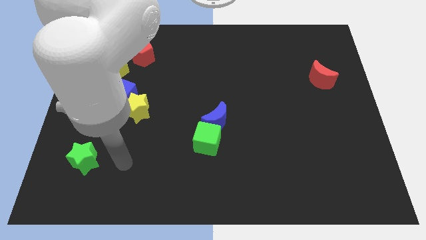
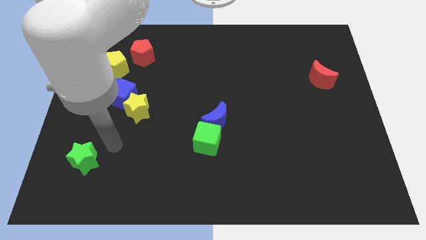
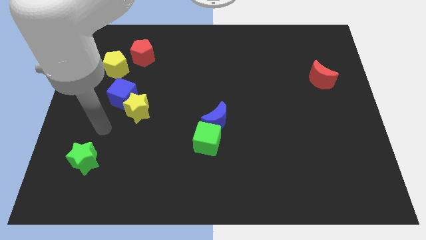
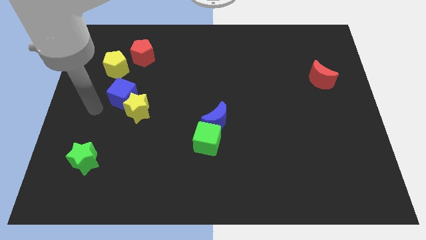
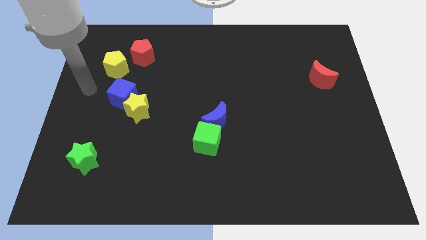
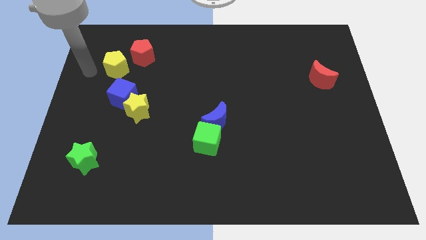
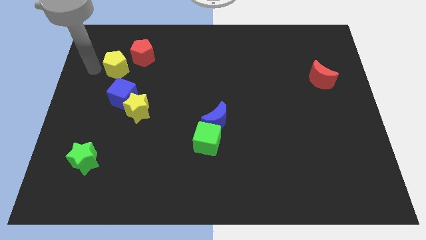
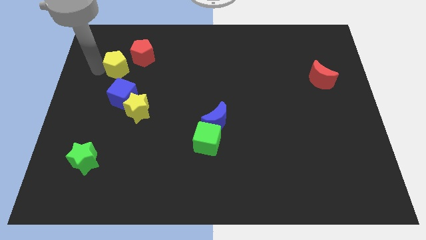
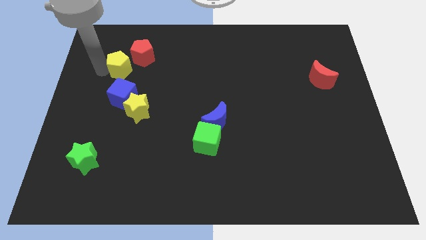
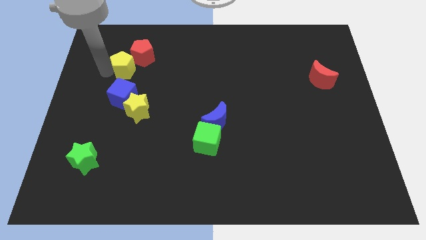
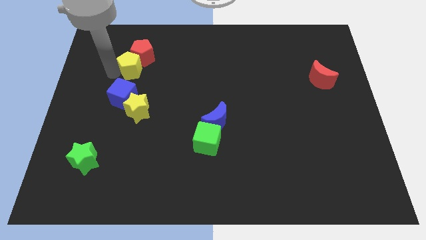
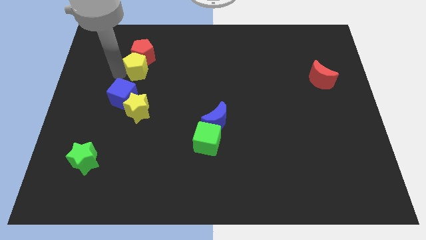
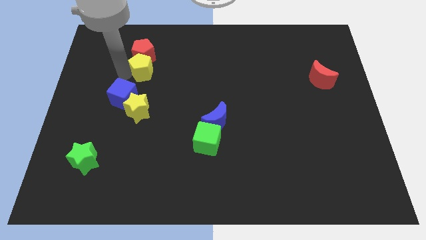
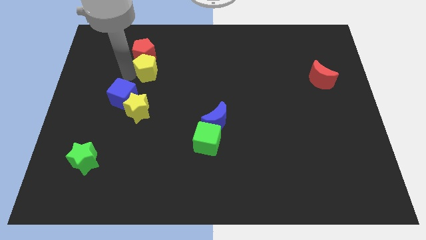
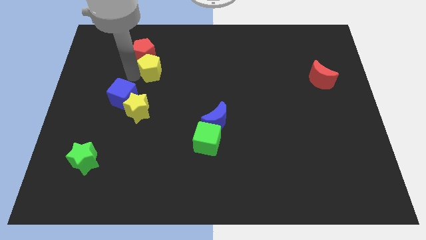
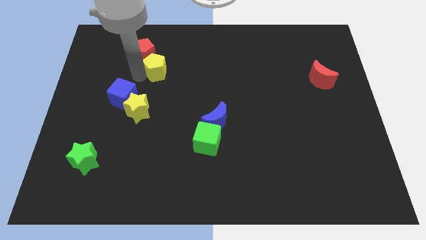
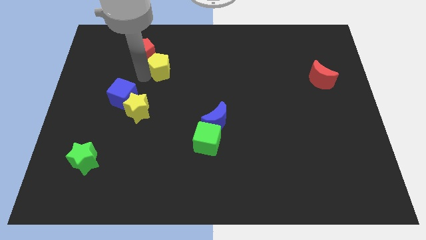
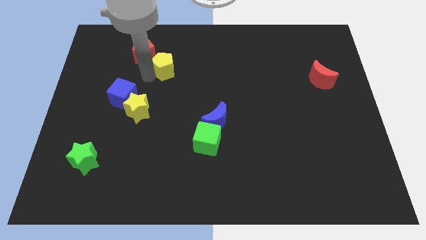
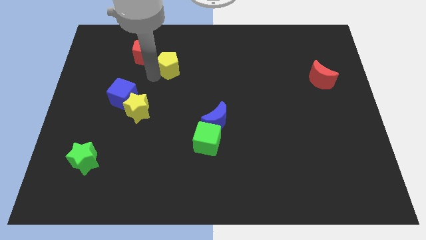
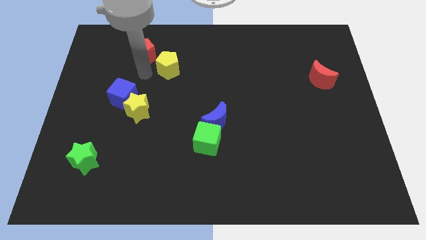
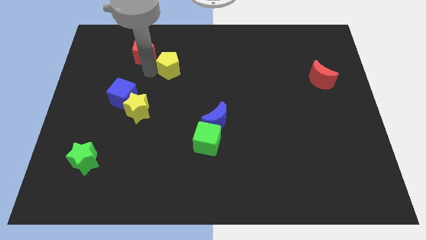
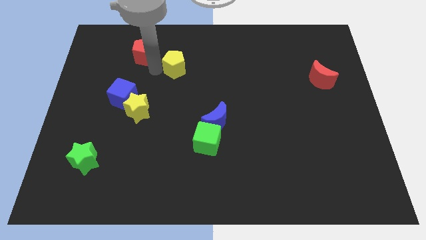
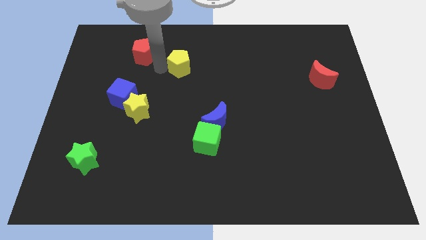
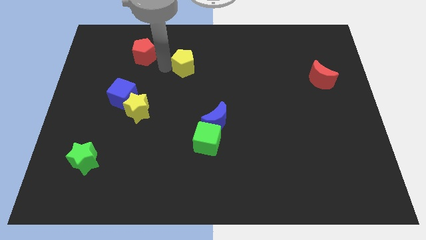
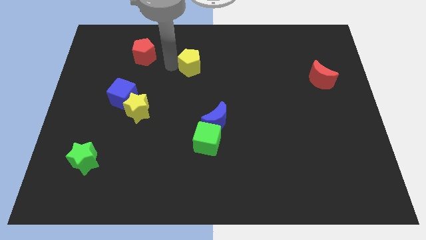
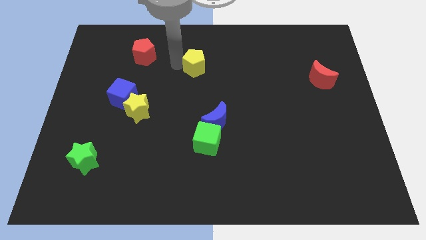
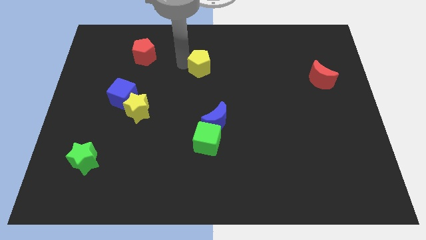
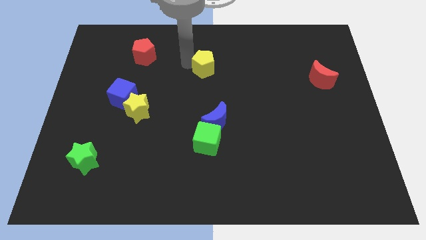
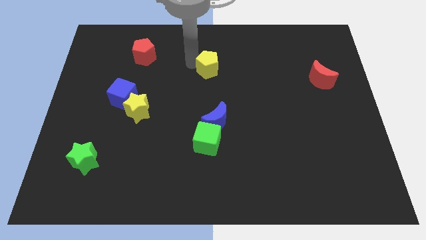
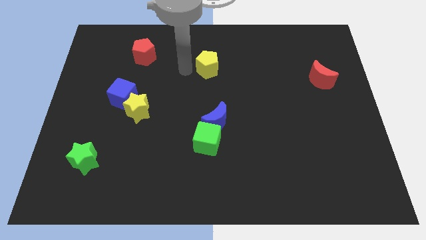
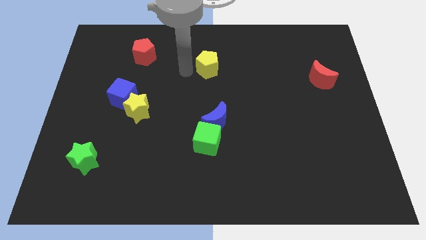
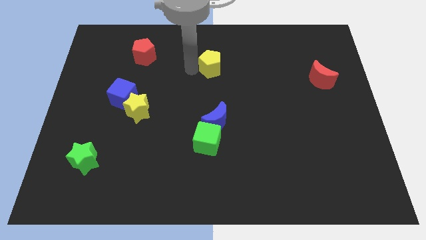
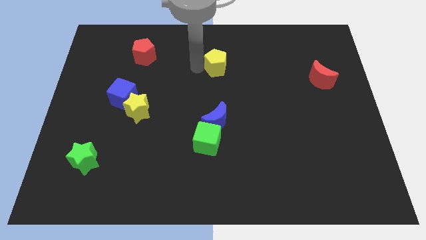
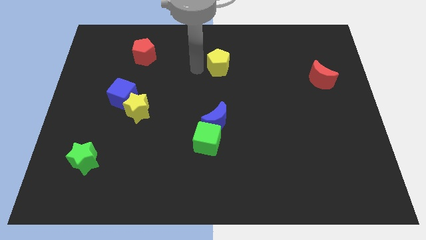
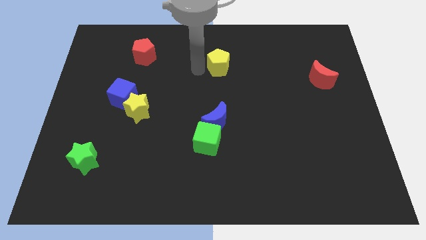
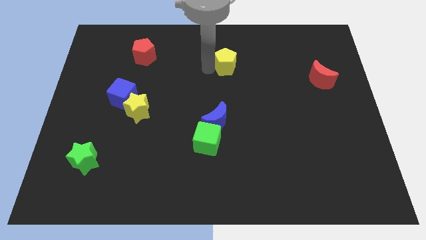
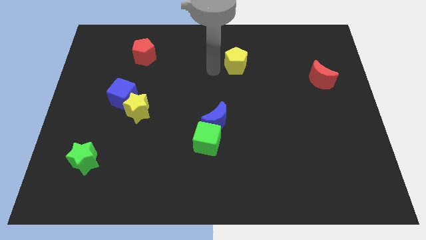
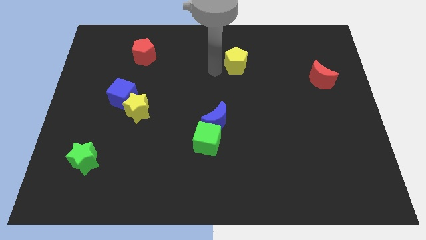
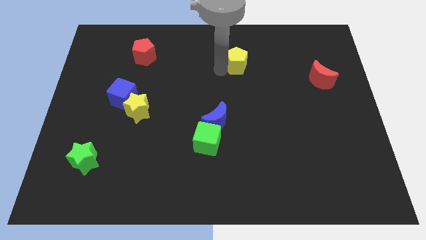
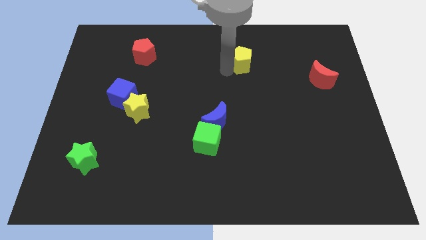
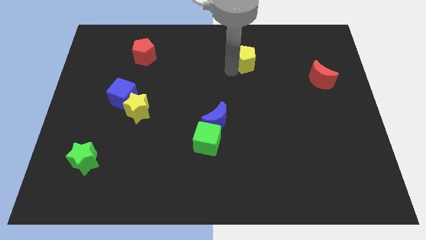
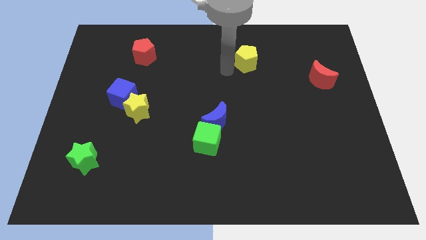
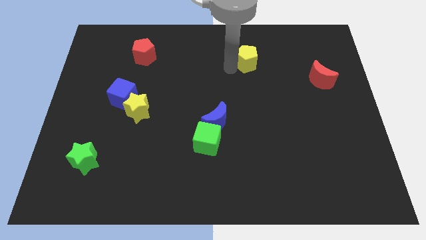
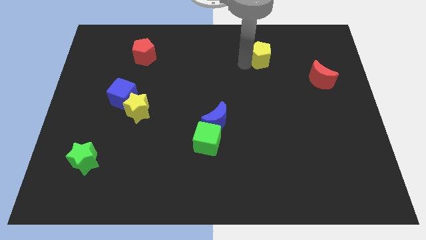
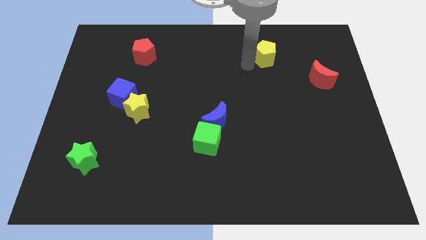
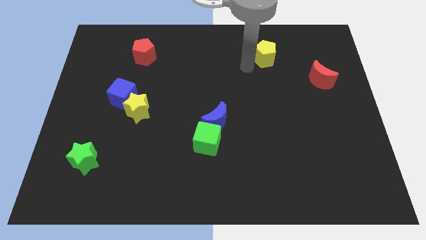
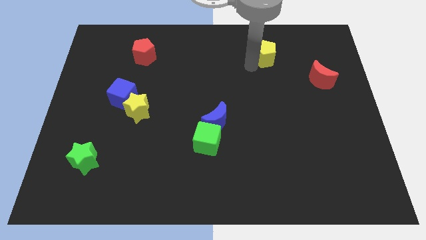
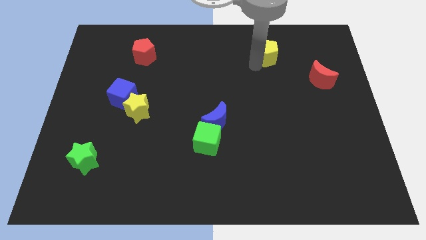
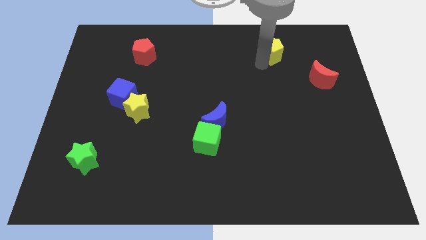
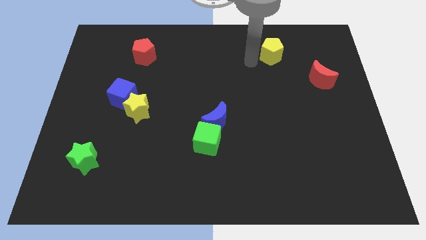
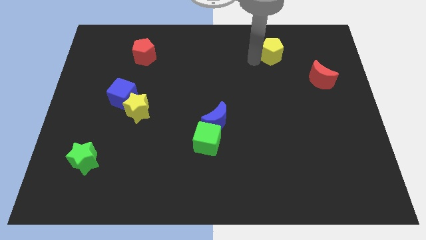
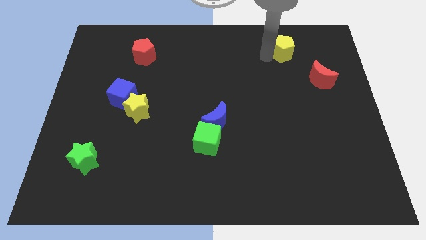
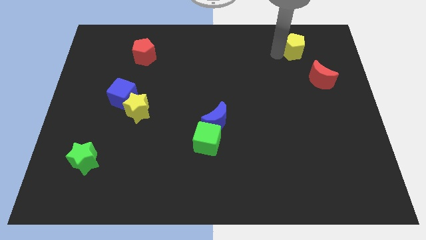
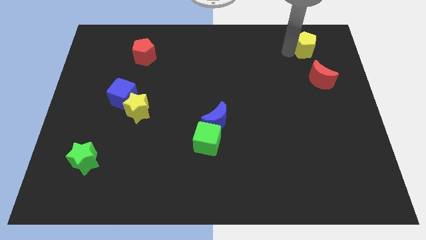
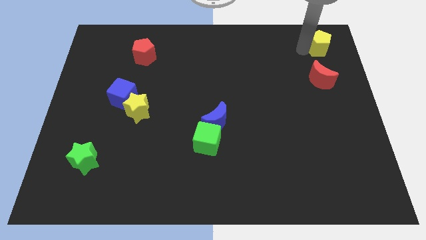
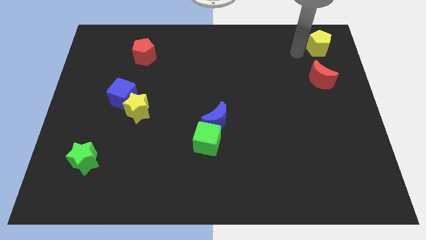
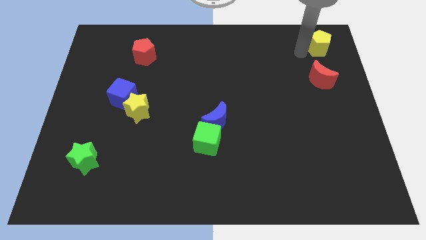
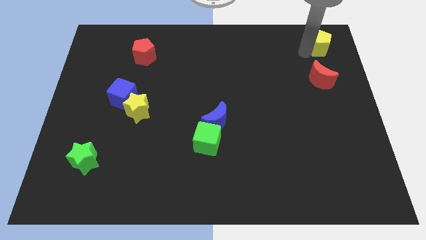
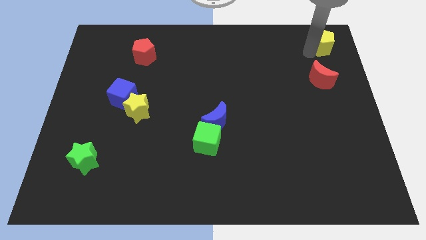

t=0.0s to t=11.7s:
slide the yellow pentagon to the top right corner

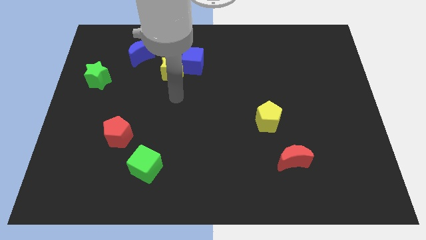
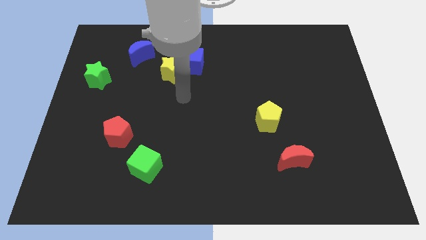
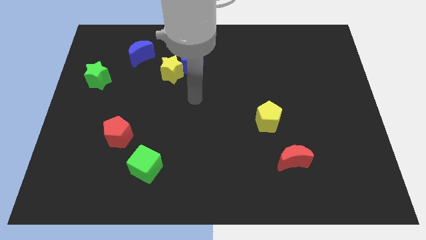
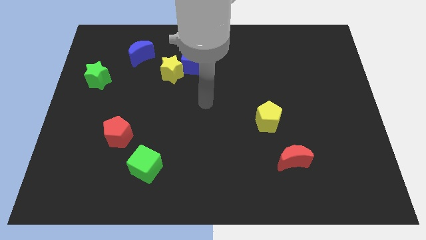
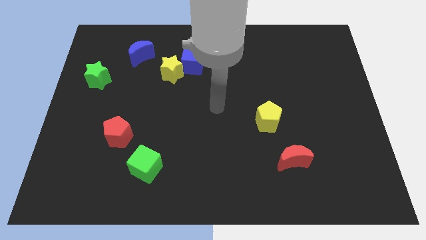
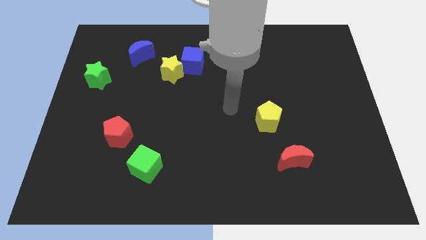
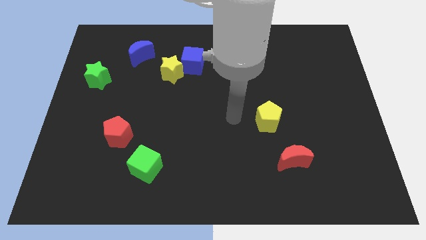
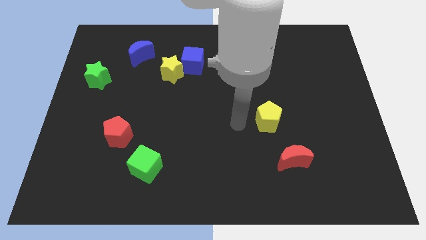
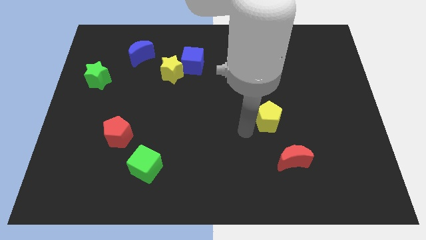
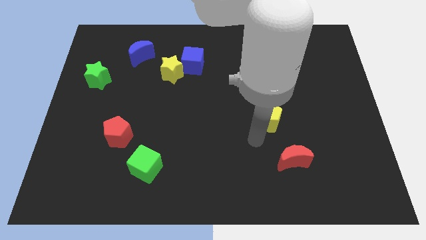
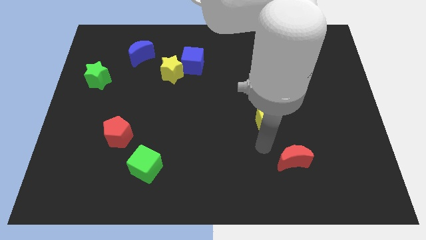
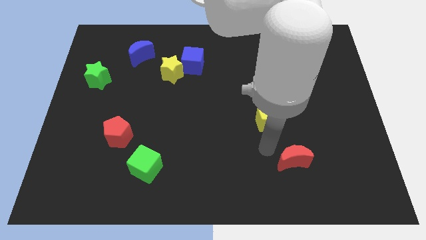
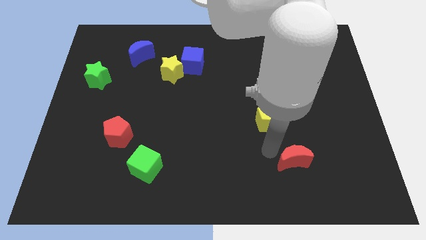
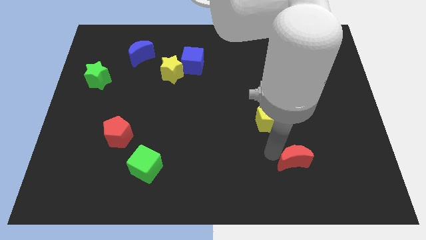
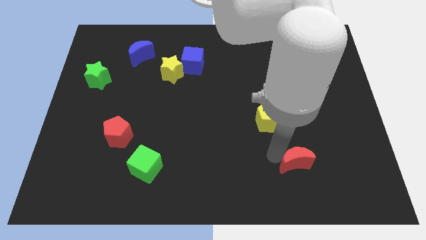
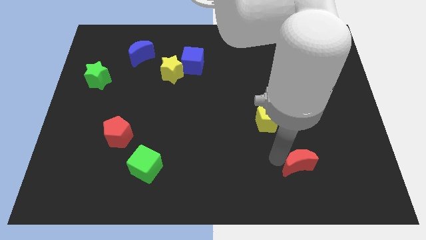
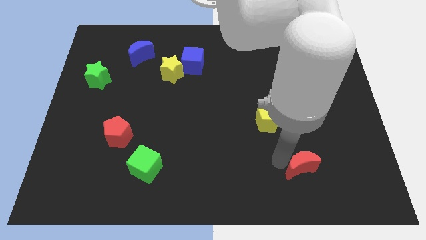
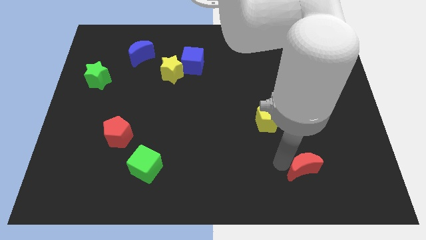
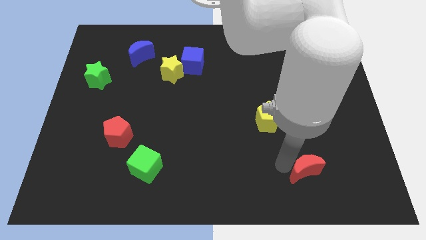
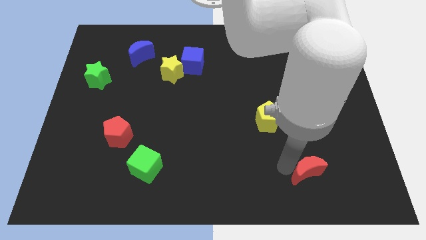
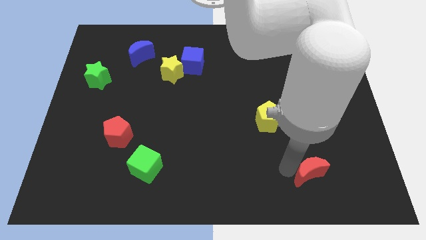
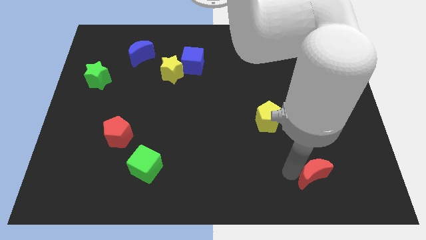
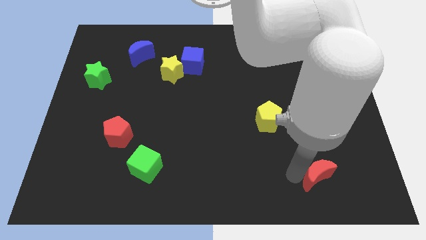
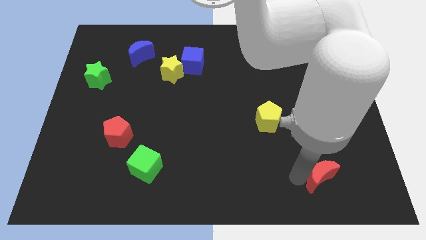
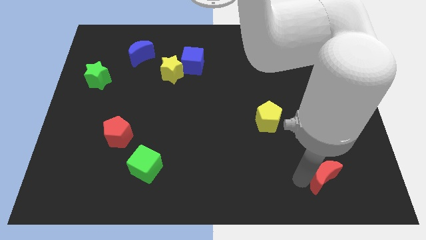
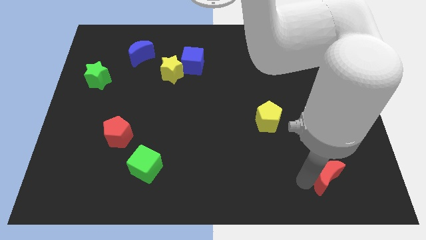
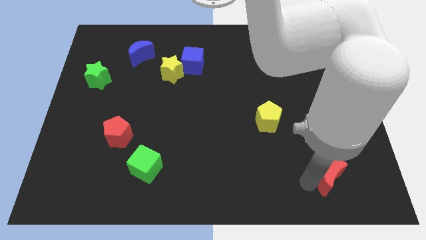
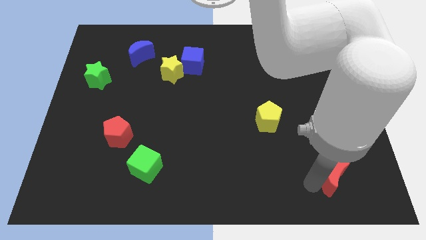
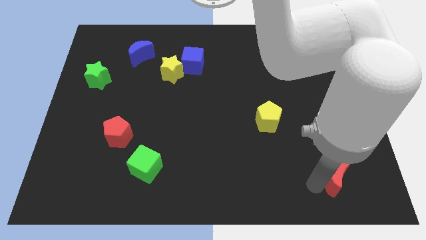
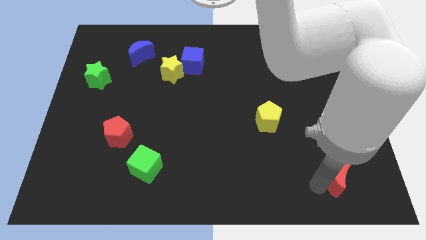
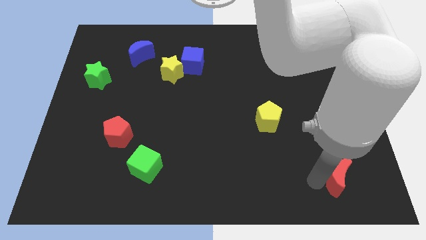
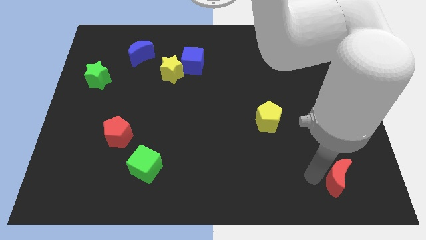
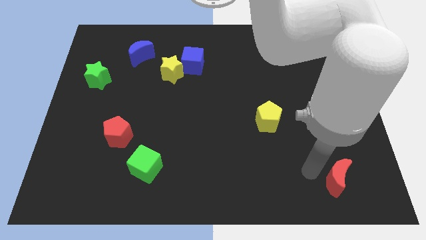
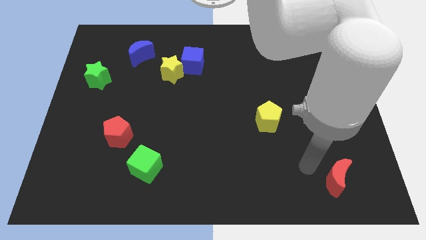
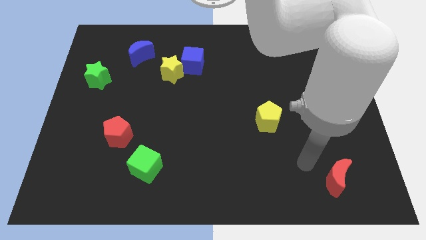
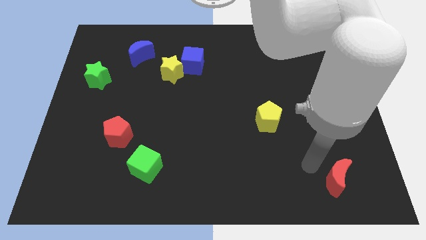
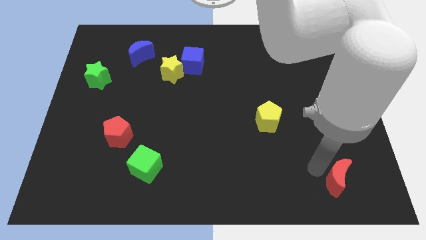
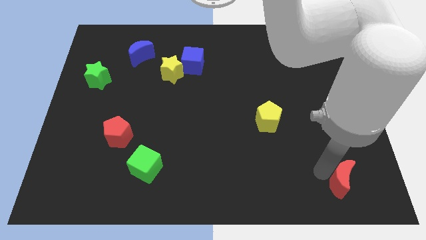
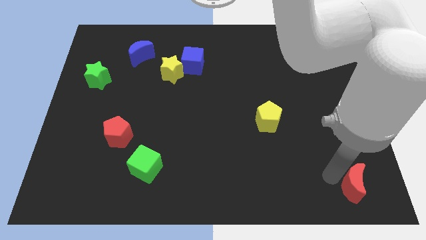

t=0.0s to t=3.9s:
push the red moon to the bottom right
